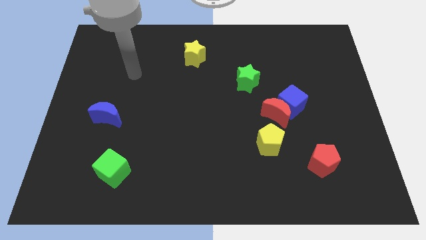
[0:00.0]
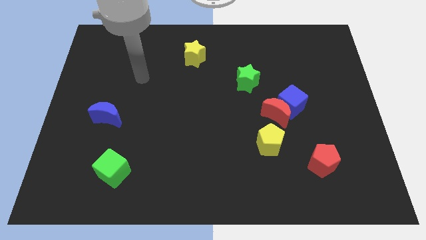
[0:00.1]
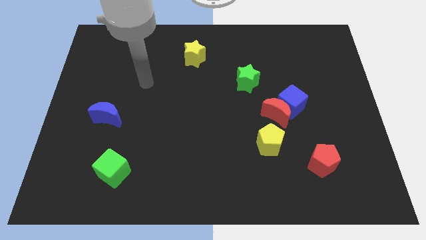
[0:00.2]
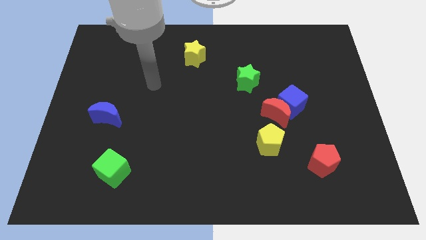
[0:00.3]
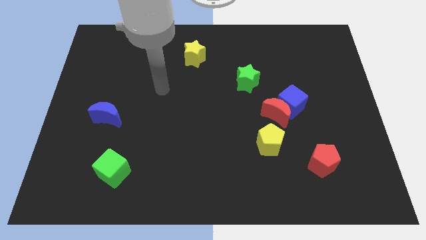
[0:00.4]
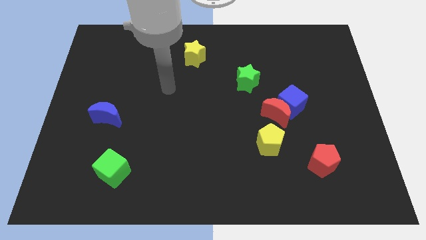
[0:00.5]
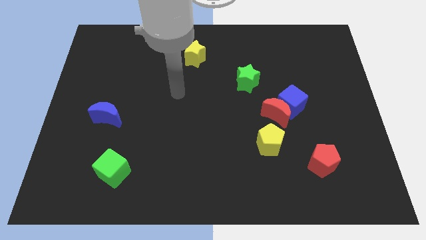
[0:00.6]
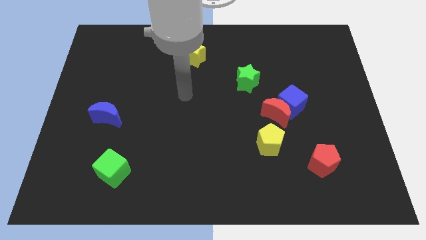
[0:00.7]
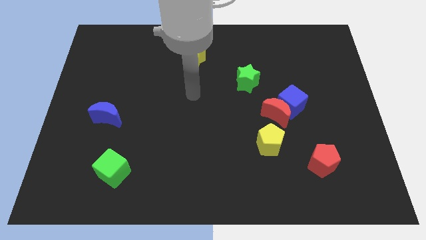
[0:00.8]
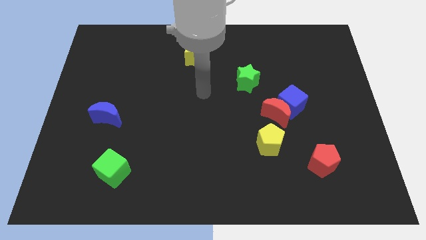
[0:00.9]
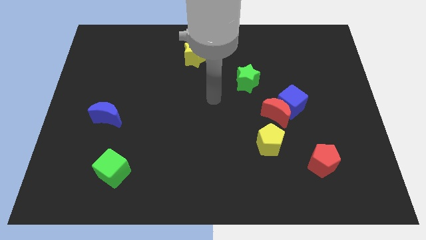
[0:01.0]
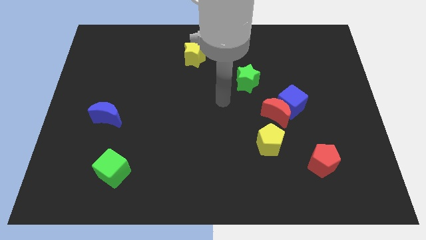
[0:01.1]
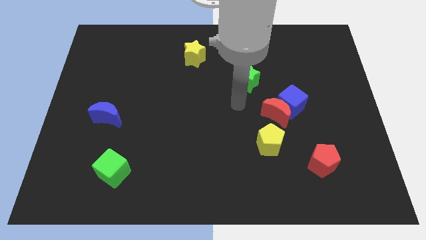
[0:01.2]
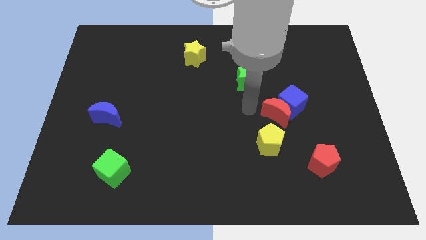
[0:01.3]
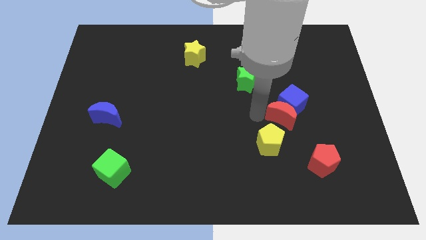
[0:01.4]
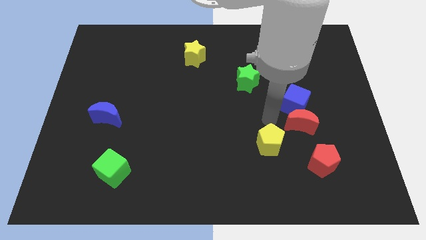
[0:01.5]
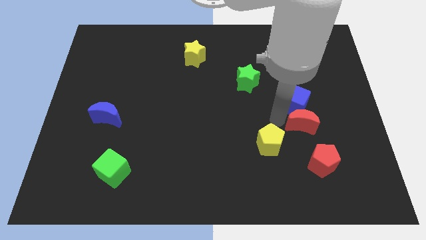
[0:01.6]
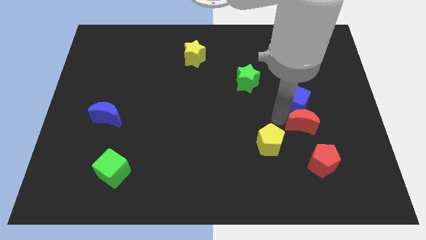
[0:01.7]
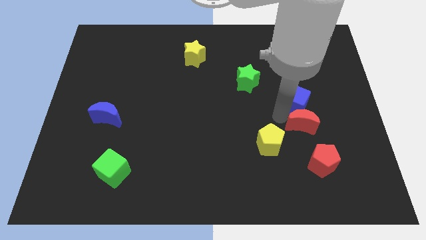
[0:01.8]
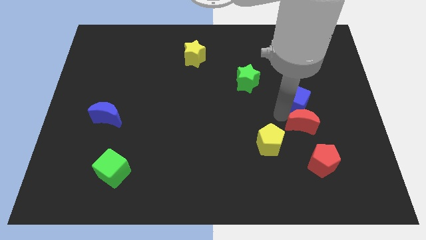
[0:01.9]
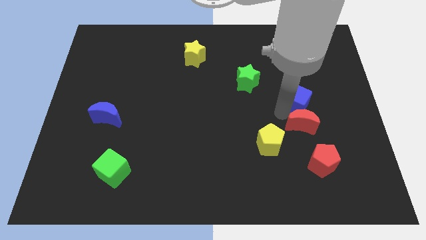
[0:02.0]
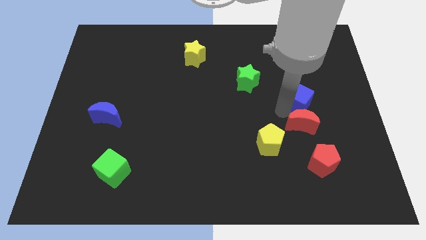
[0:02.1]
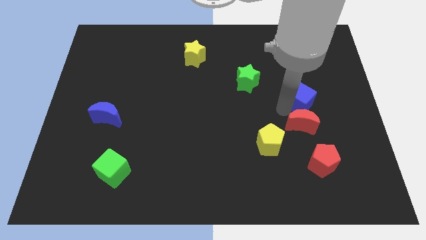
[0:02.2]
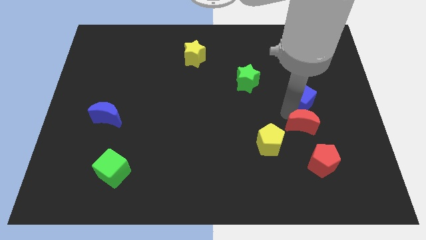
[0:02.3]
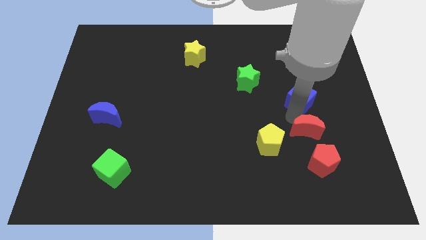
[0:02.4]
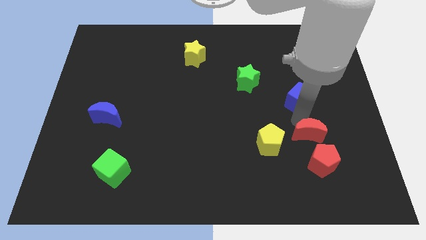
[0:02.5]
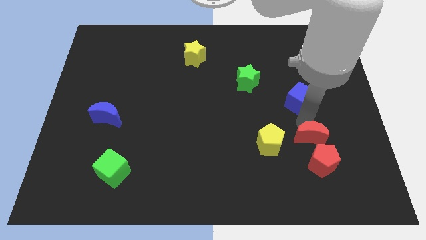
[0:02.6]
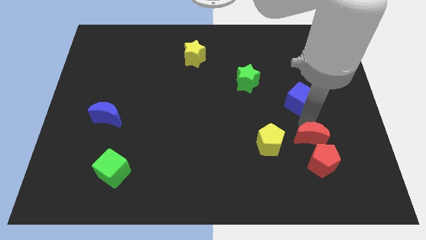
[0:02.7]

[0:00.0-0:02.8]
separate the blue cube from the red moon

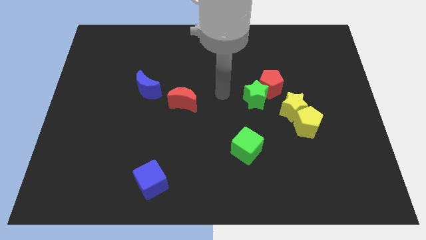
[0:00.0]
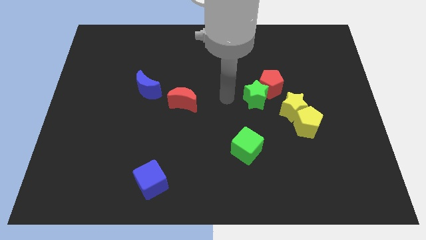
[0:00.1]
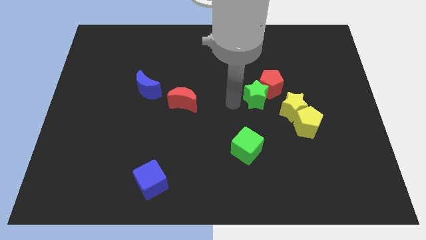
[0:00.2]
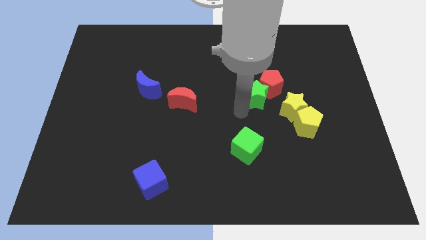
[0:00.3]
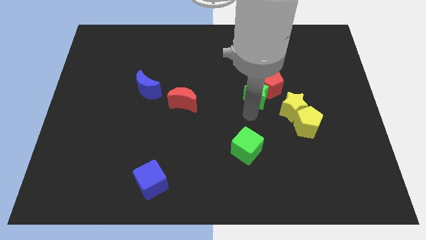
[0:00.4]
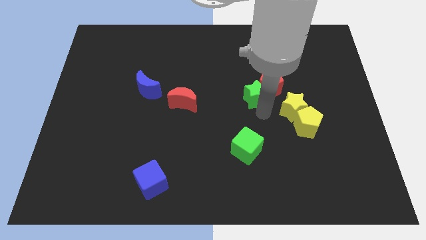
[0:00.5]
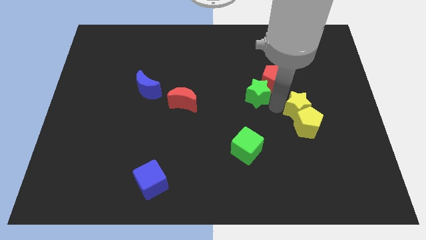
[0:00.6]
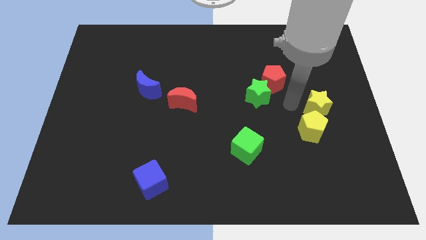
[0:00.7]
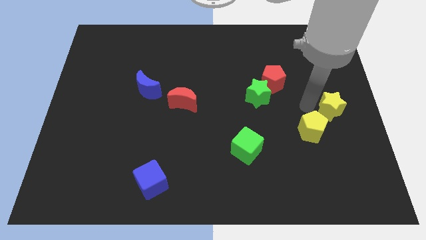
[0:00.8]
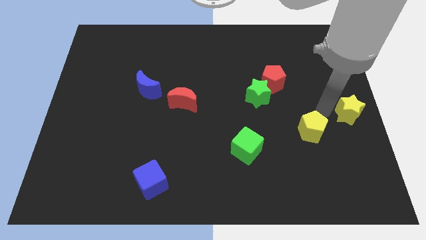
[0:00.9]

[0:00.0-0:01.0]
pull the yellow pentagon apart from the yellow star

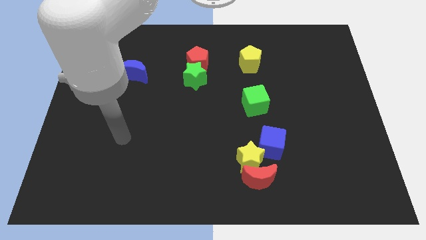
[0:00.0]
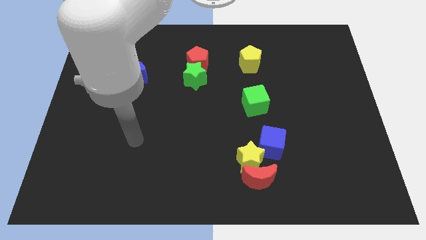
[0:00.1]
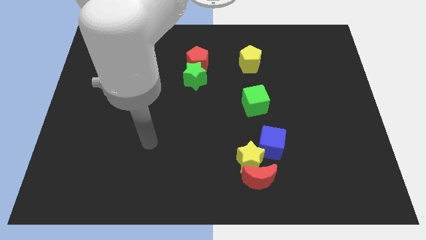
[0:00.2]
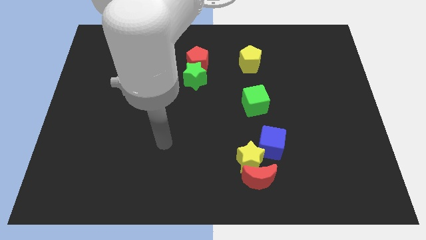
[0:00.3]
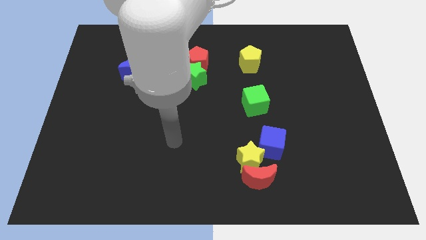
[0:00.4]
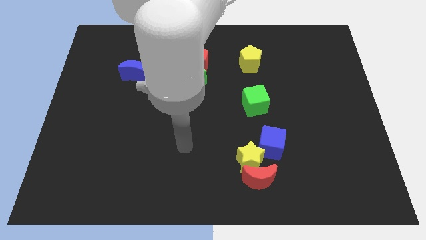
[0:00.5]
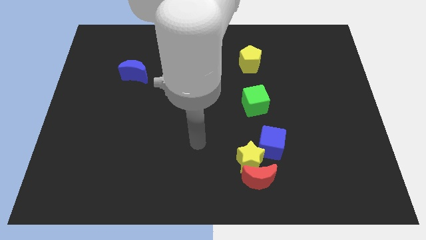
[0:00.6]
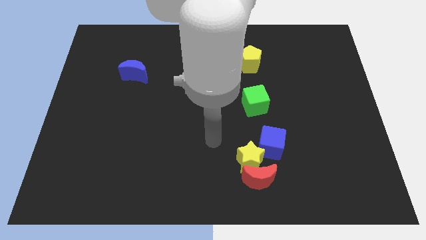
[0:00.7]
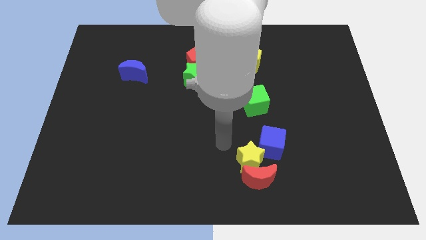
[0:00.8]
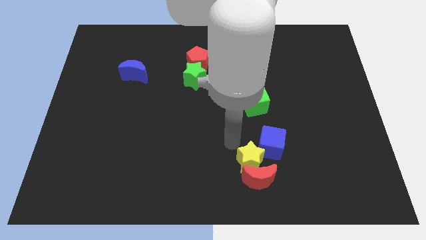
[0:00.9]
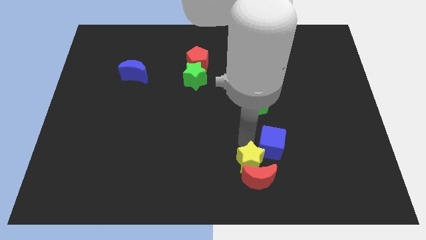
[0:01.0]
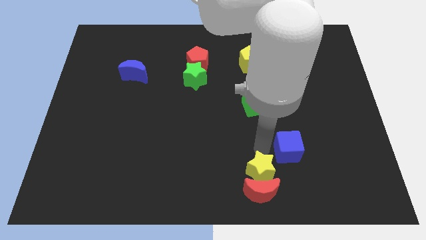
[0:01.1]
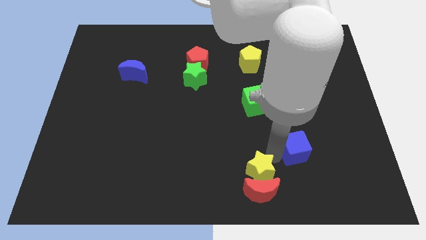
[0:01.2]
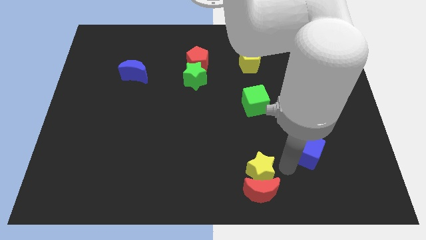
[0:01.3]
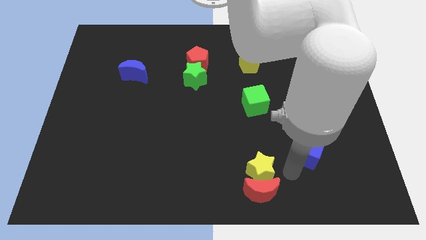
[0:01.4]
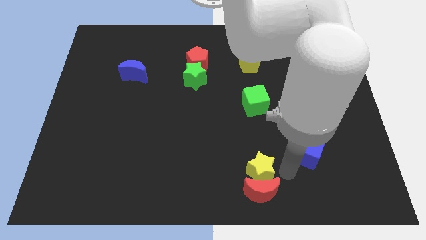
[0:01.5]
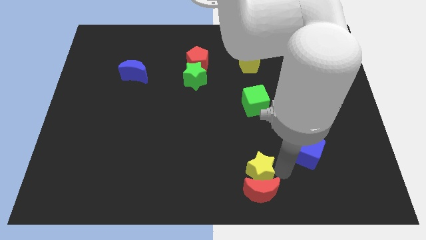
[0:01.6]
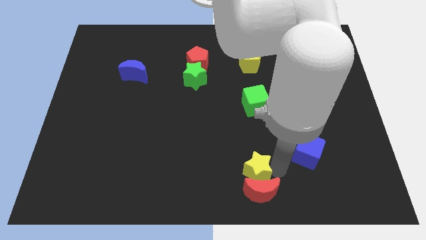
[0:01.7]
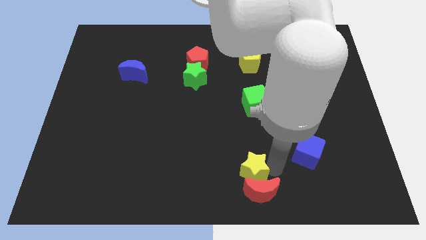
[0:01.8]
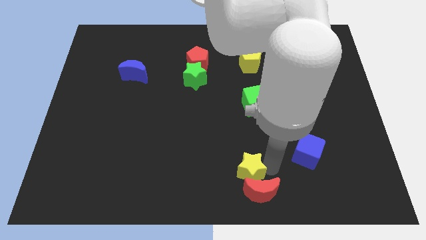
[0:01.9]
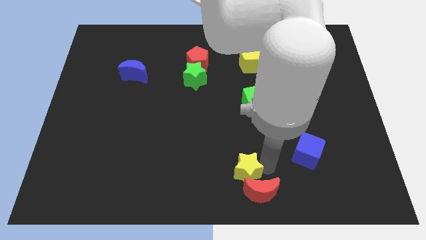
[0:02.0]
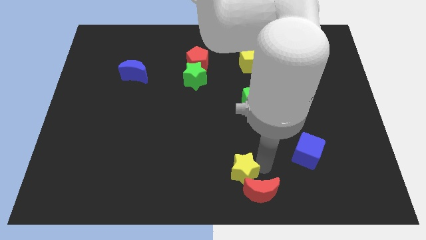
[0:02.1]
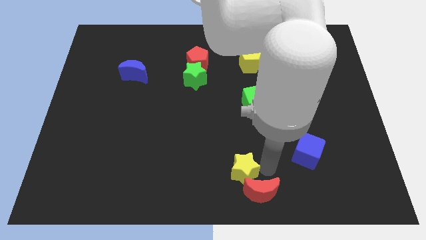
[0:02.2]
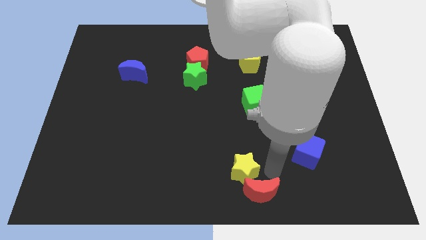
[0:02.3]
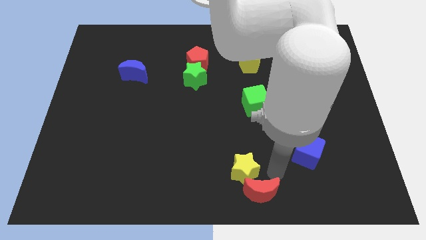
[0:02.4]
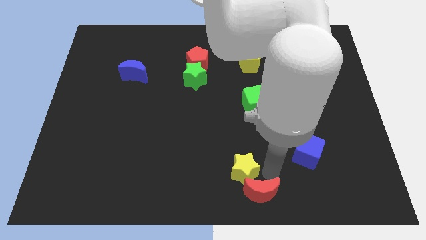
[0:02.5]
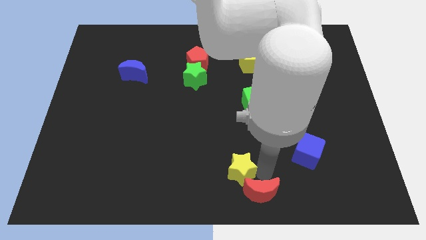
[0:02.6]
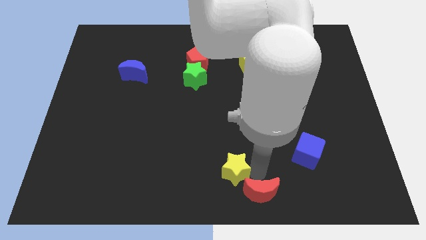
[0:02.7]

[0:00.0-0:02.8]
separate the yellow star from the red moon and blue cube

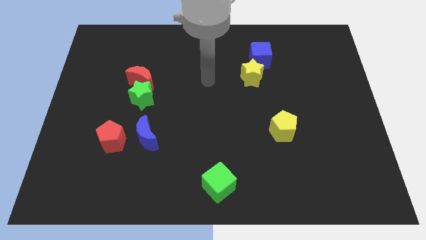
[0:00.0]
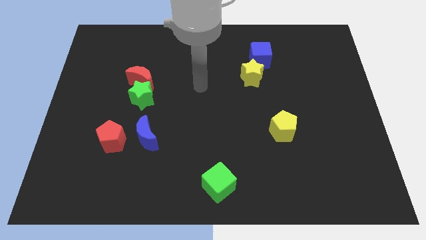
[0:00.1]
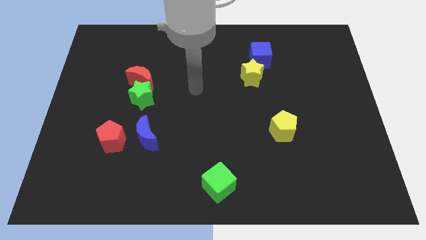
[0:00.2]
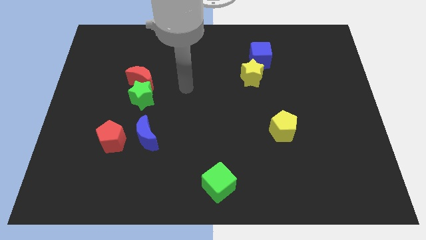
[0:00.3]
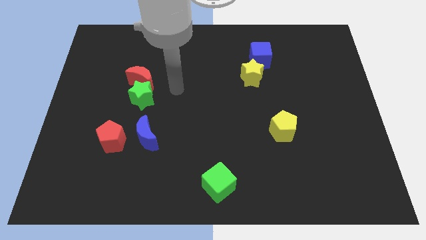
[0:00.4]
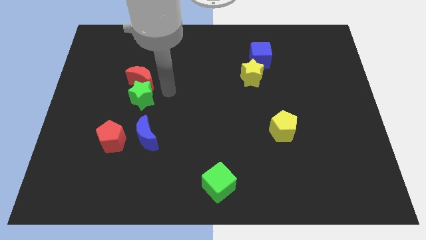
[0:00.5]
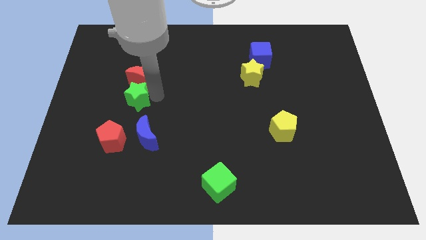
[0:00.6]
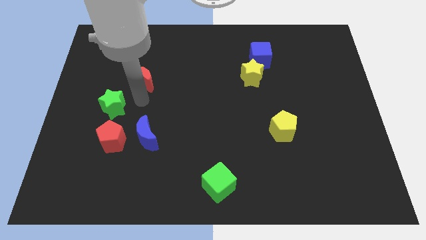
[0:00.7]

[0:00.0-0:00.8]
move the red moon away from the green star

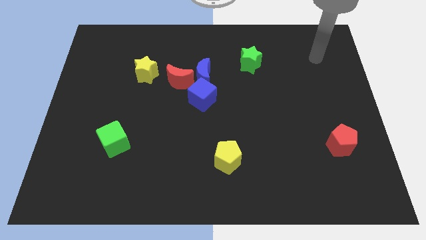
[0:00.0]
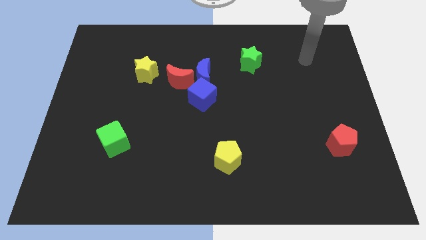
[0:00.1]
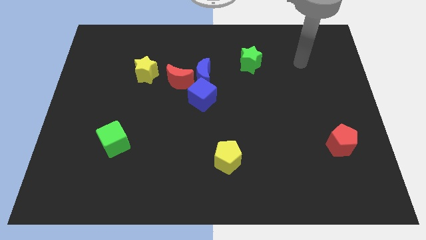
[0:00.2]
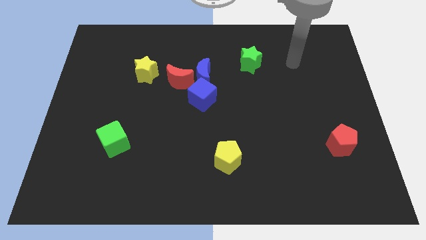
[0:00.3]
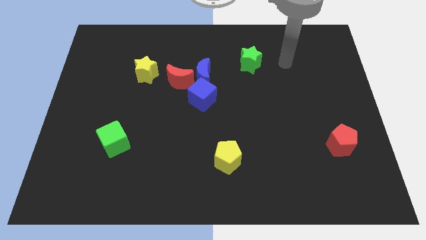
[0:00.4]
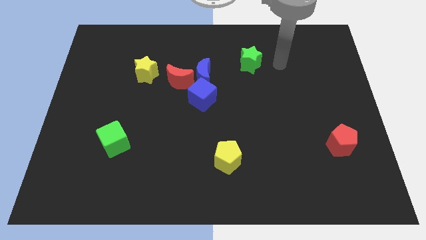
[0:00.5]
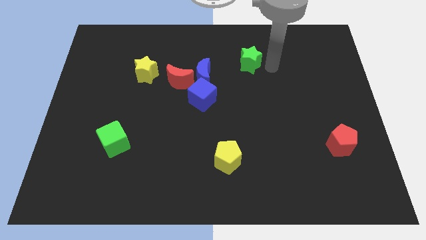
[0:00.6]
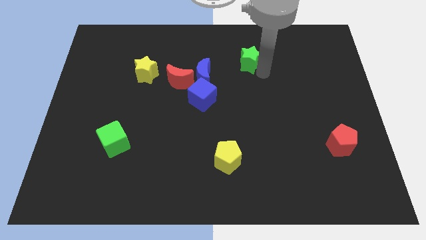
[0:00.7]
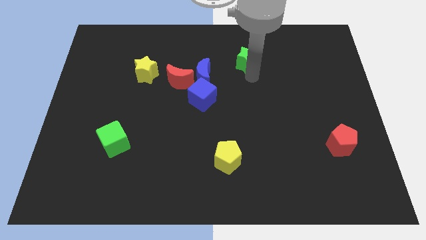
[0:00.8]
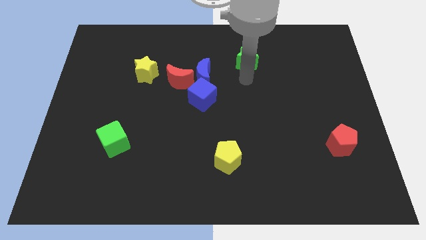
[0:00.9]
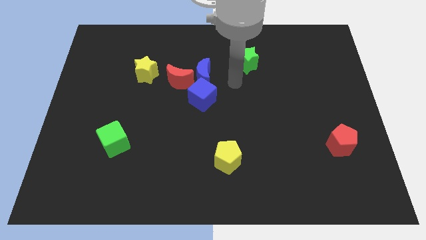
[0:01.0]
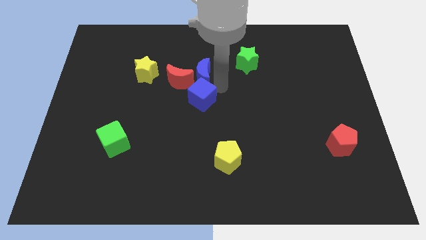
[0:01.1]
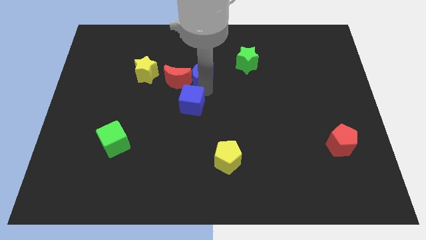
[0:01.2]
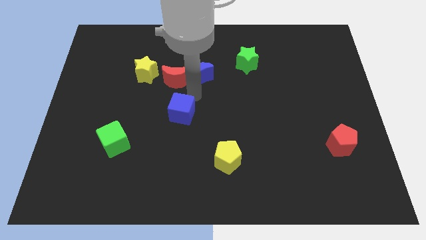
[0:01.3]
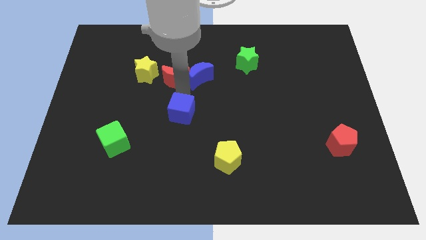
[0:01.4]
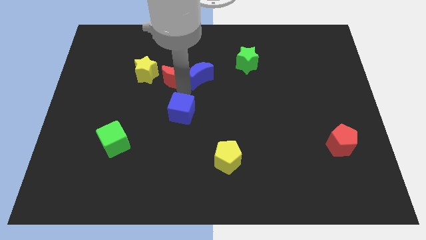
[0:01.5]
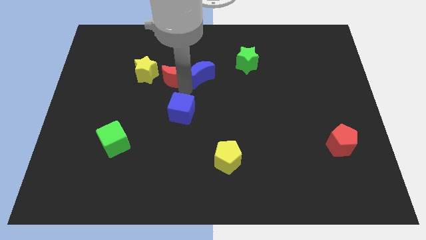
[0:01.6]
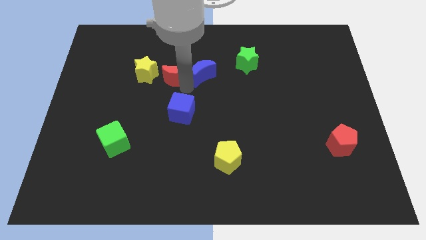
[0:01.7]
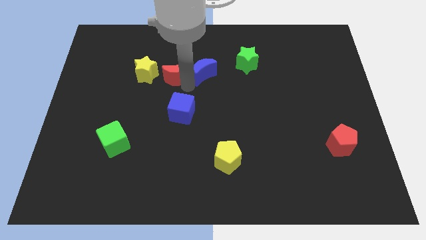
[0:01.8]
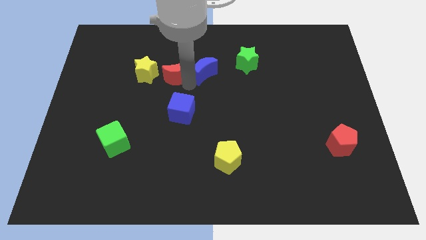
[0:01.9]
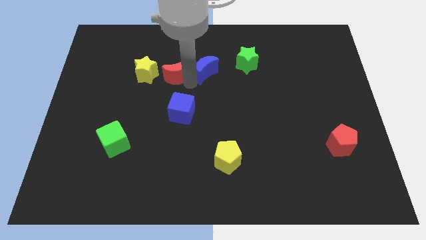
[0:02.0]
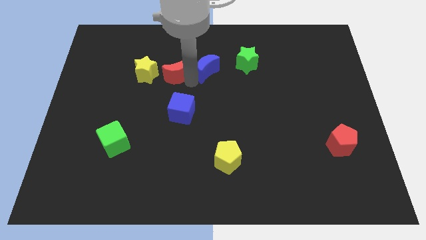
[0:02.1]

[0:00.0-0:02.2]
separate the blue moon from the red moon and blue cube
